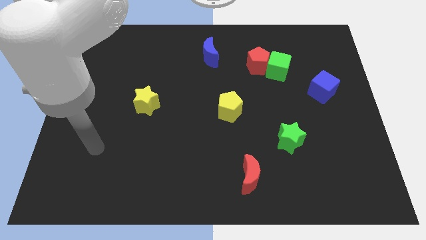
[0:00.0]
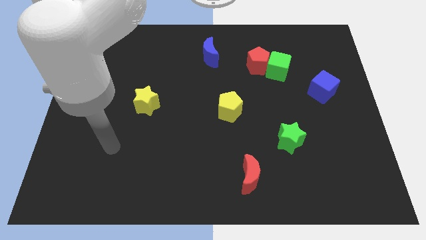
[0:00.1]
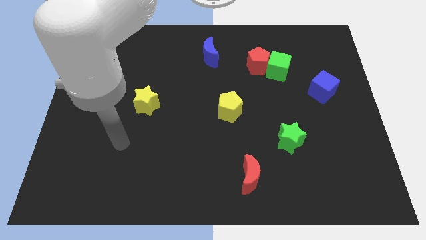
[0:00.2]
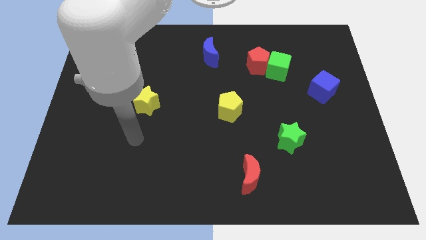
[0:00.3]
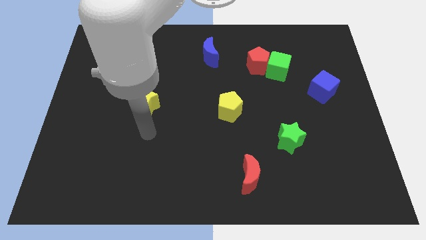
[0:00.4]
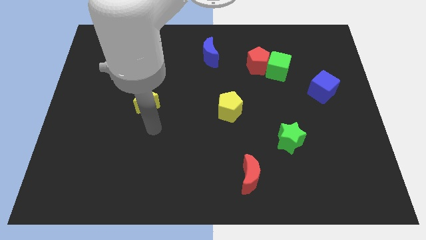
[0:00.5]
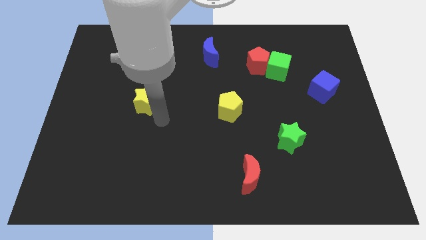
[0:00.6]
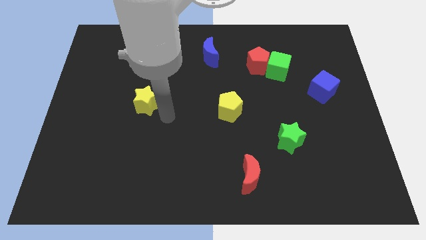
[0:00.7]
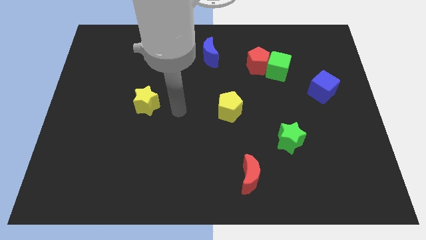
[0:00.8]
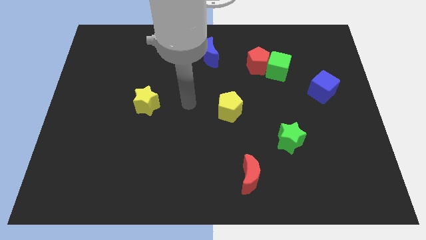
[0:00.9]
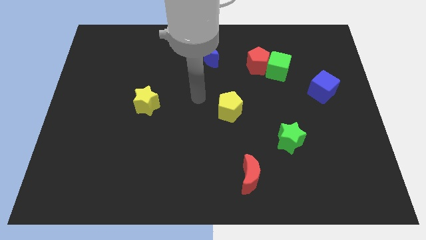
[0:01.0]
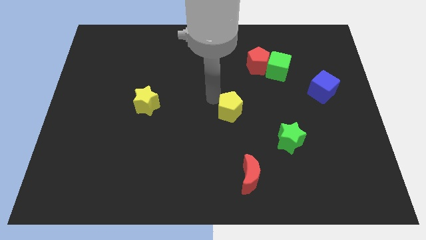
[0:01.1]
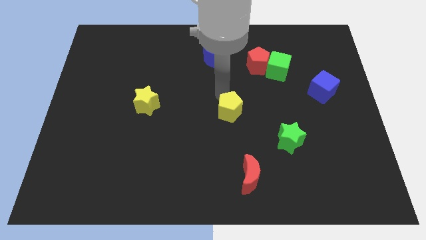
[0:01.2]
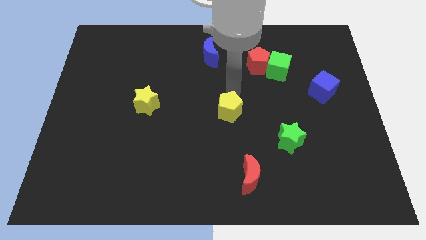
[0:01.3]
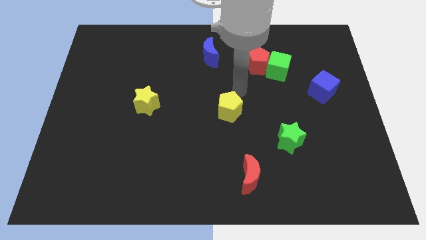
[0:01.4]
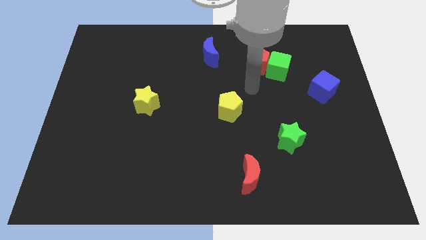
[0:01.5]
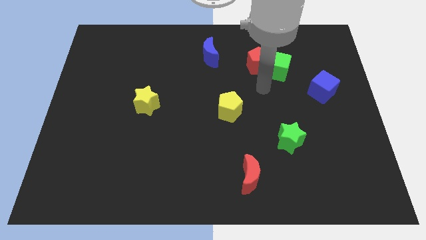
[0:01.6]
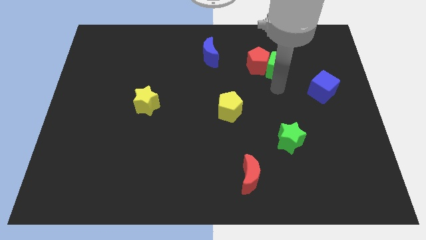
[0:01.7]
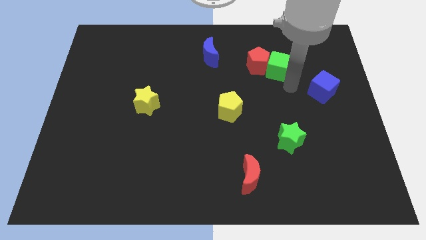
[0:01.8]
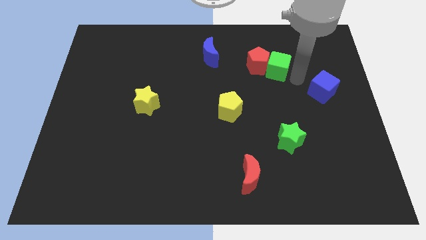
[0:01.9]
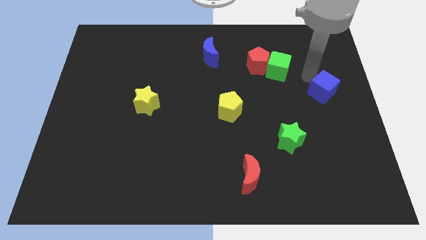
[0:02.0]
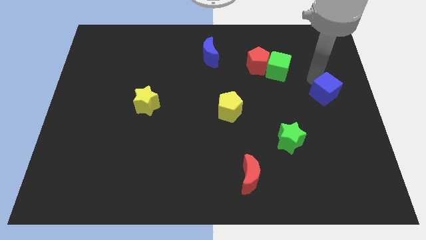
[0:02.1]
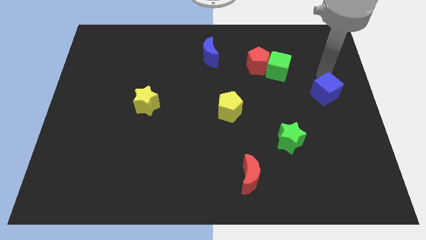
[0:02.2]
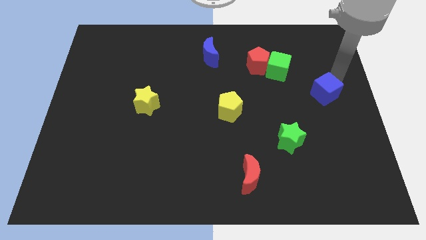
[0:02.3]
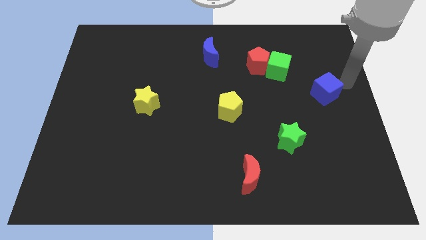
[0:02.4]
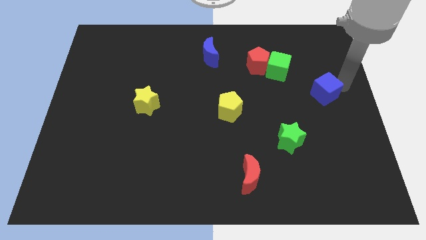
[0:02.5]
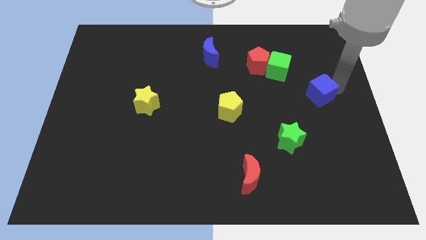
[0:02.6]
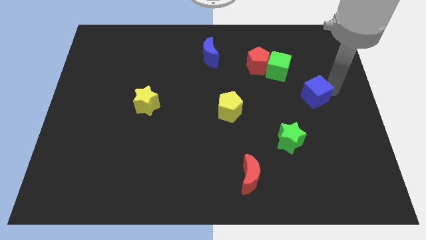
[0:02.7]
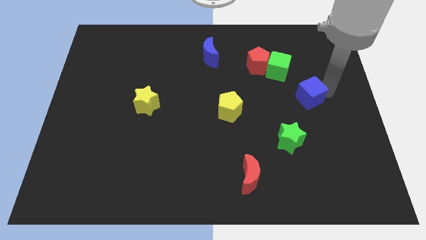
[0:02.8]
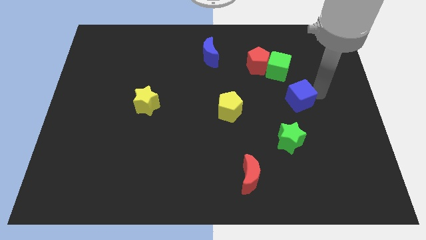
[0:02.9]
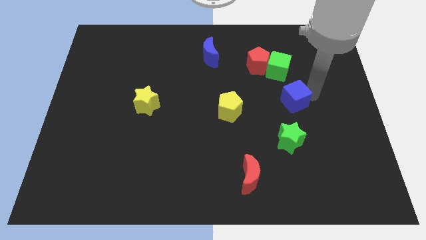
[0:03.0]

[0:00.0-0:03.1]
slightly move the blue cube diagonally down and left

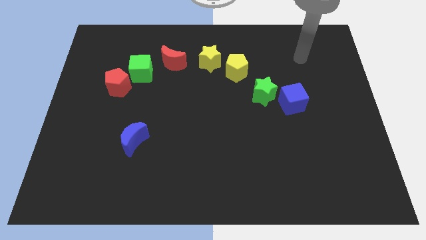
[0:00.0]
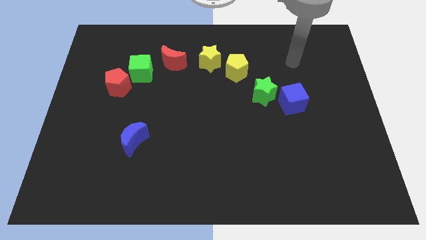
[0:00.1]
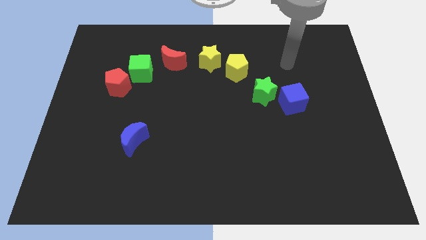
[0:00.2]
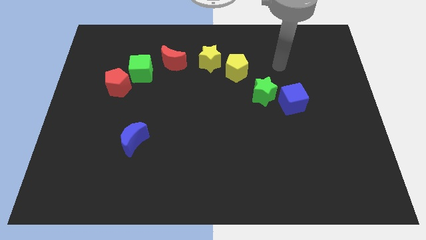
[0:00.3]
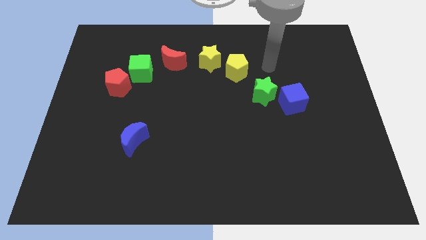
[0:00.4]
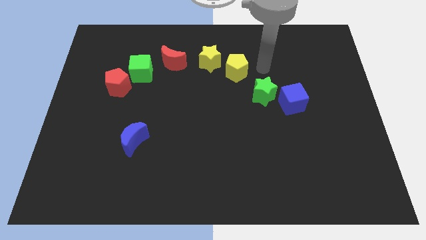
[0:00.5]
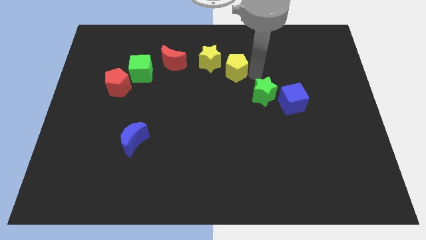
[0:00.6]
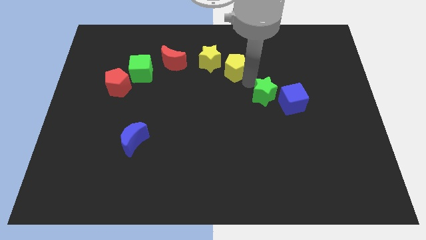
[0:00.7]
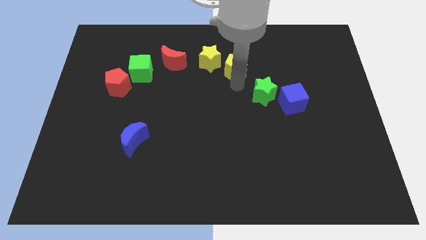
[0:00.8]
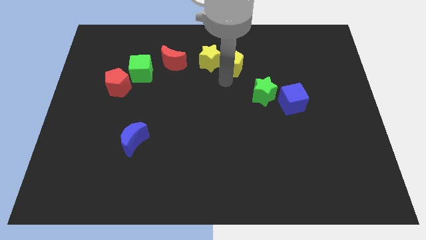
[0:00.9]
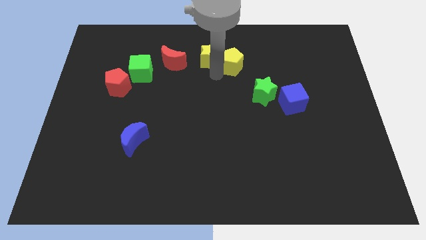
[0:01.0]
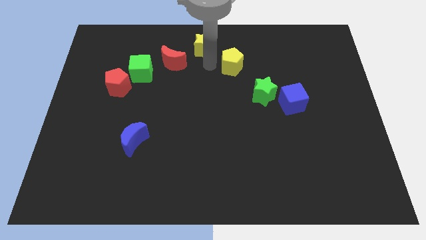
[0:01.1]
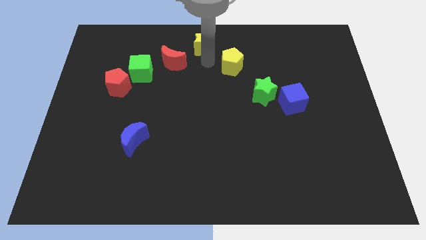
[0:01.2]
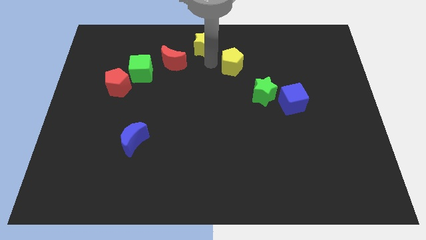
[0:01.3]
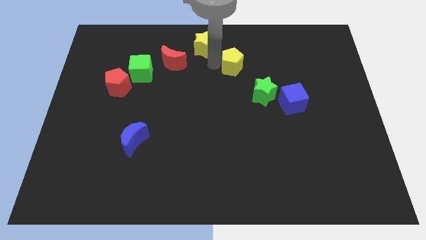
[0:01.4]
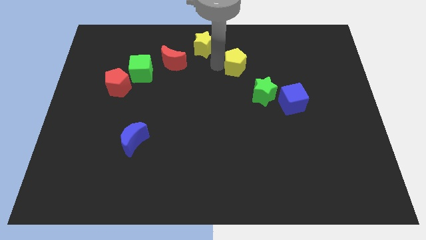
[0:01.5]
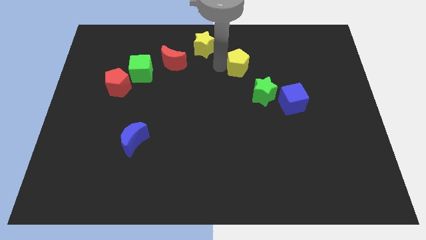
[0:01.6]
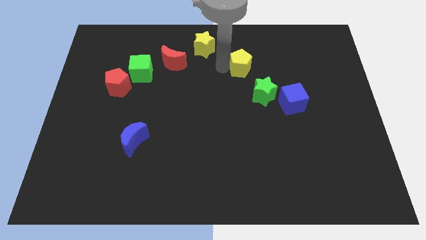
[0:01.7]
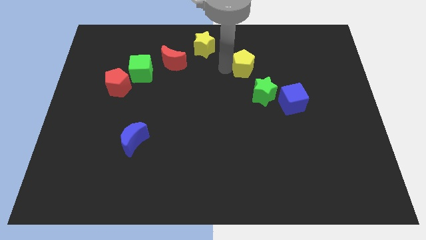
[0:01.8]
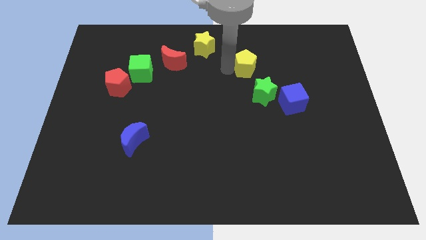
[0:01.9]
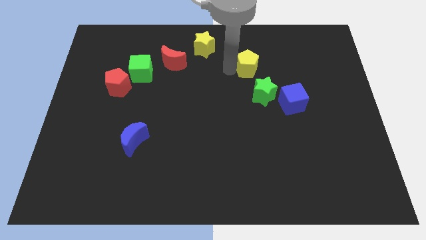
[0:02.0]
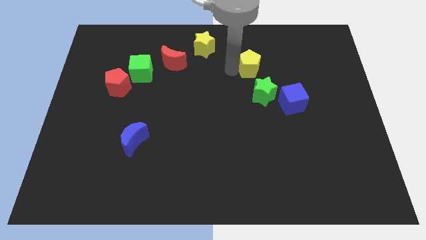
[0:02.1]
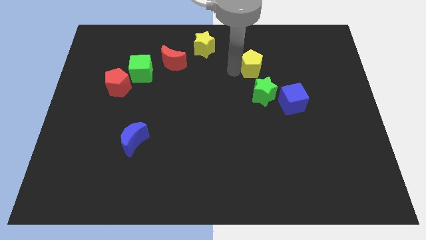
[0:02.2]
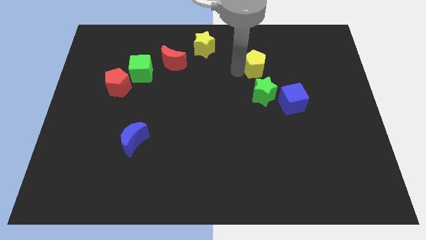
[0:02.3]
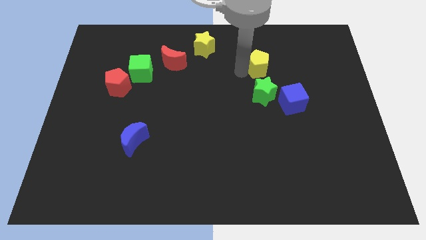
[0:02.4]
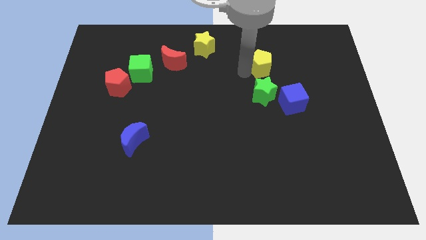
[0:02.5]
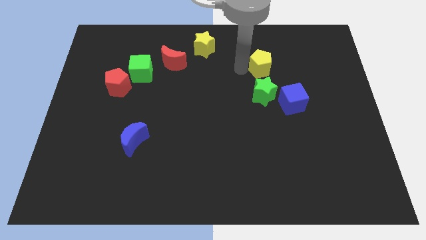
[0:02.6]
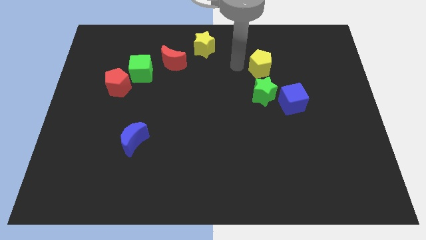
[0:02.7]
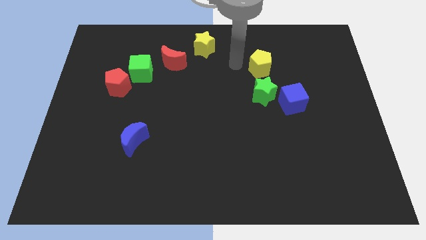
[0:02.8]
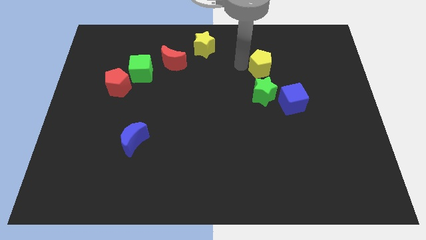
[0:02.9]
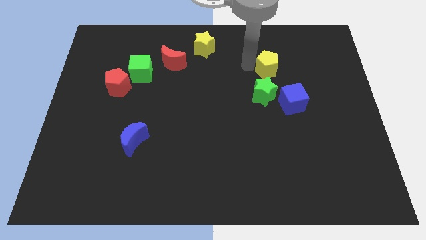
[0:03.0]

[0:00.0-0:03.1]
slightly push the yellow pentagon right

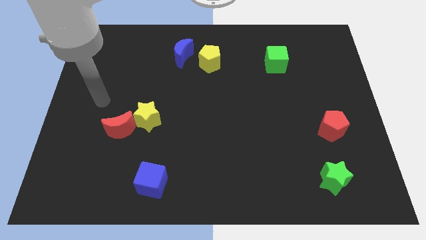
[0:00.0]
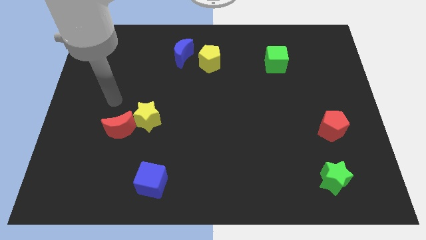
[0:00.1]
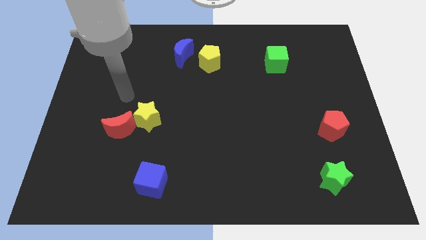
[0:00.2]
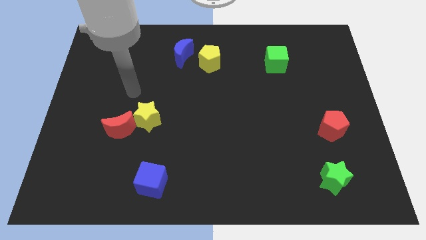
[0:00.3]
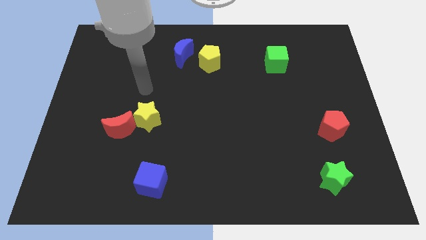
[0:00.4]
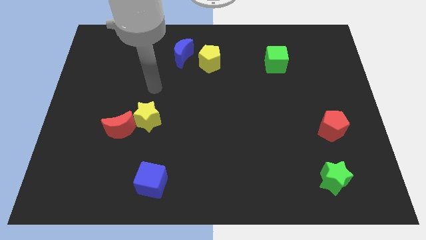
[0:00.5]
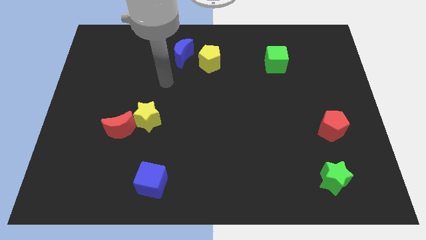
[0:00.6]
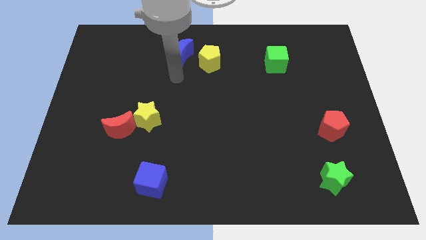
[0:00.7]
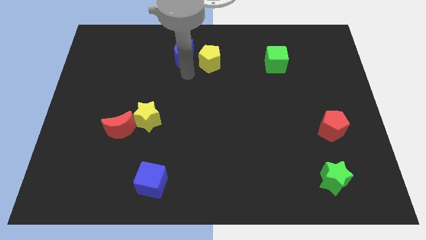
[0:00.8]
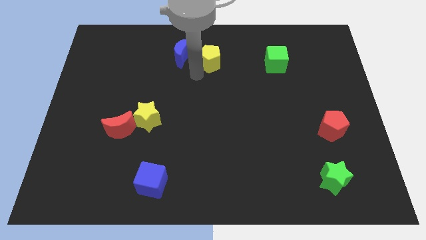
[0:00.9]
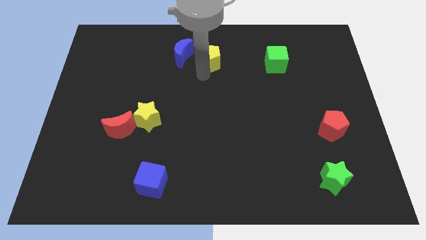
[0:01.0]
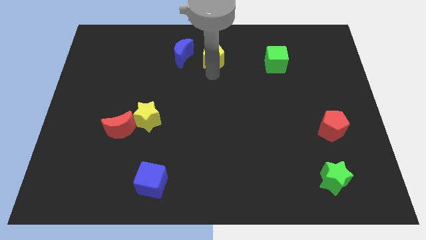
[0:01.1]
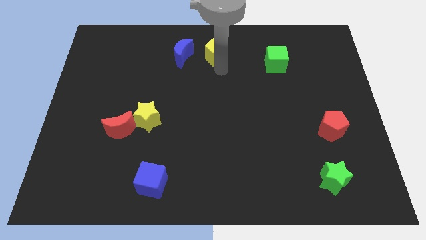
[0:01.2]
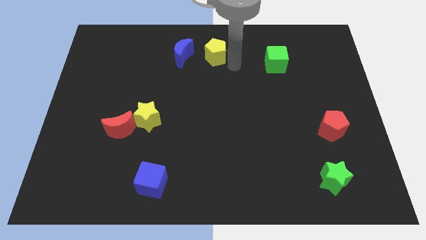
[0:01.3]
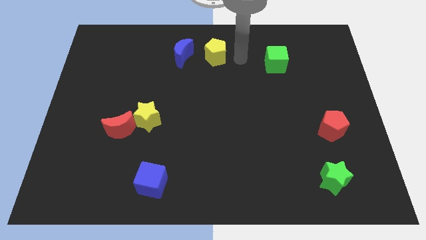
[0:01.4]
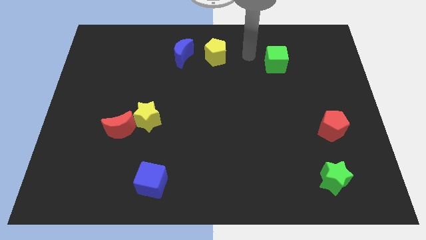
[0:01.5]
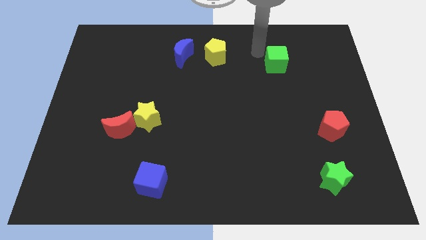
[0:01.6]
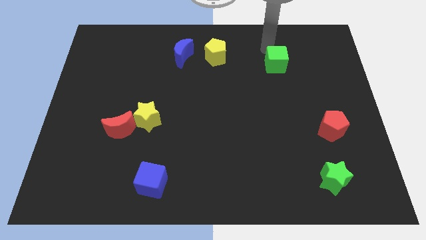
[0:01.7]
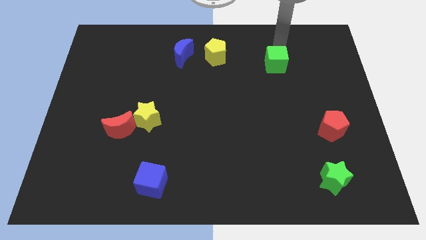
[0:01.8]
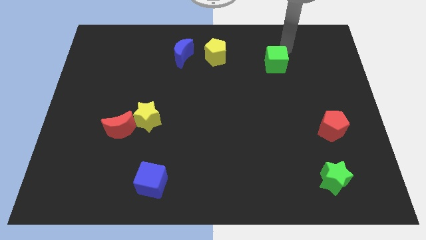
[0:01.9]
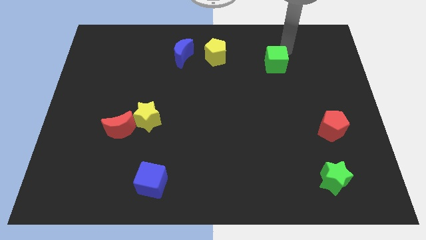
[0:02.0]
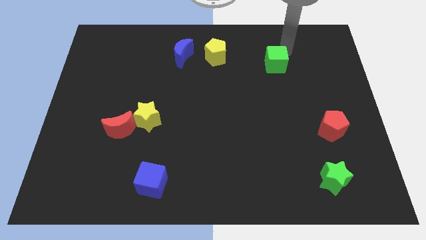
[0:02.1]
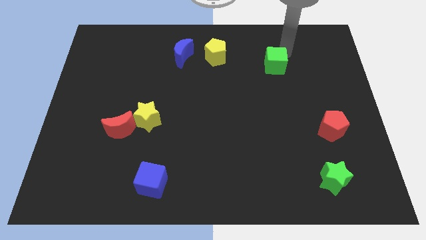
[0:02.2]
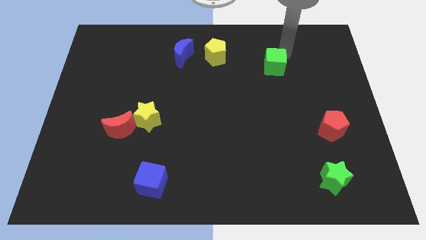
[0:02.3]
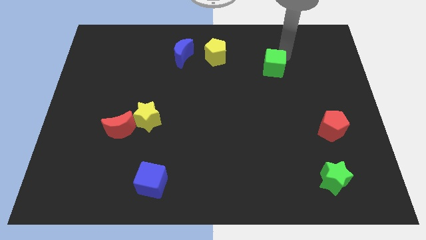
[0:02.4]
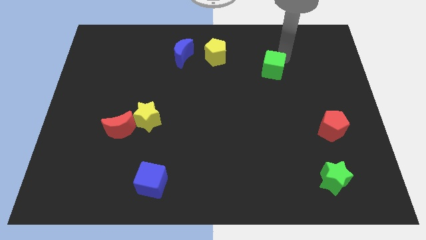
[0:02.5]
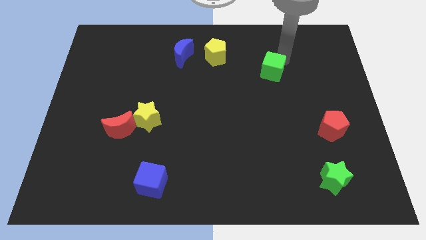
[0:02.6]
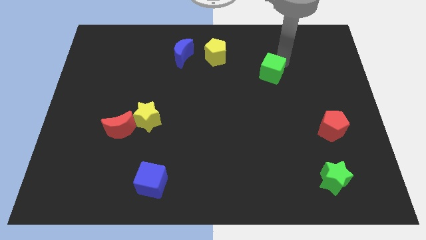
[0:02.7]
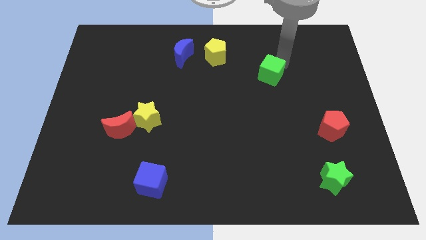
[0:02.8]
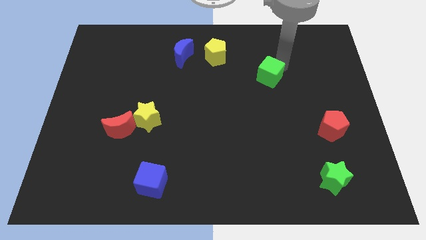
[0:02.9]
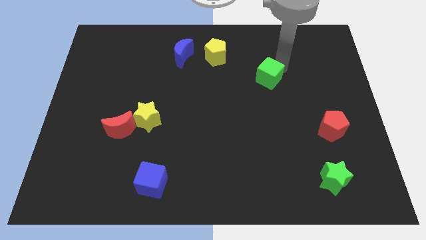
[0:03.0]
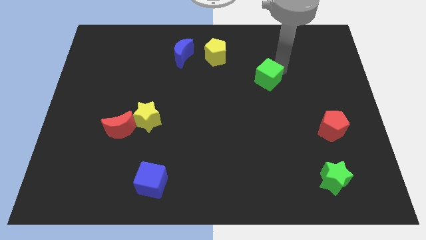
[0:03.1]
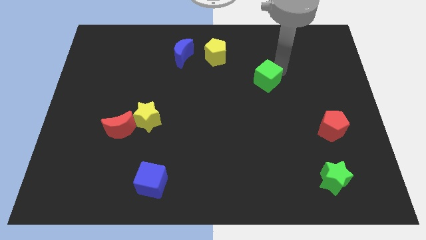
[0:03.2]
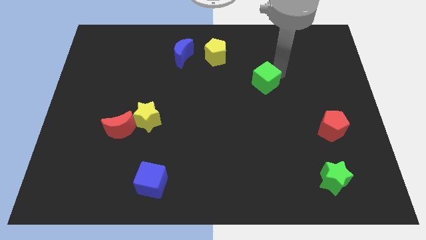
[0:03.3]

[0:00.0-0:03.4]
push the green cube down and then to the left a bit
